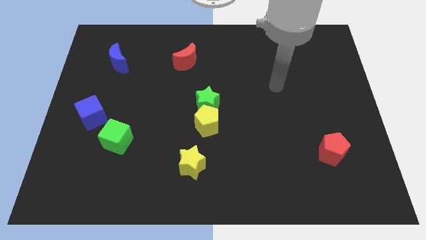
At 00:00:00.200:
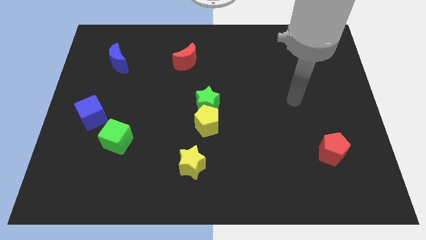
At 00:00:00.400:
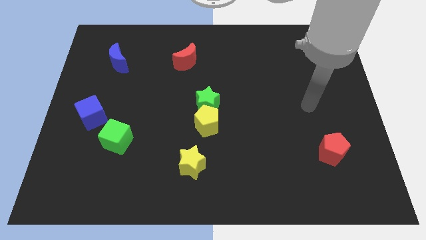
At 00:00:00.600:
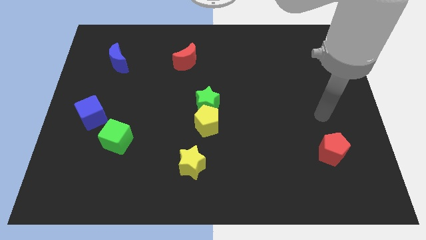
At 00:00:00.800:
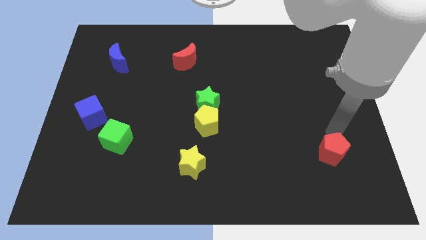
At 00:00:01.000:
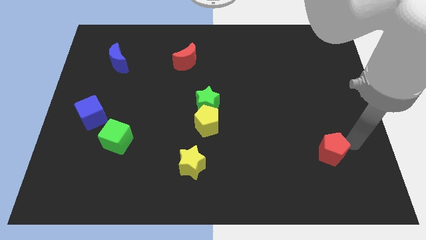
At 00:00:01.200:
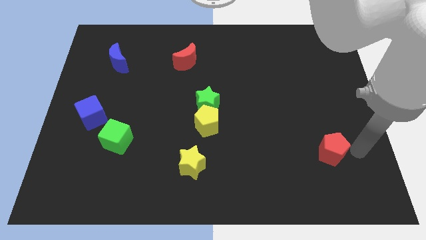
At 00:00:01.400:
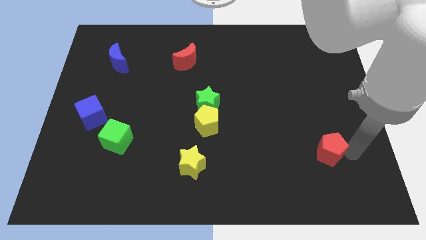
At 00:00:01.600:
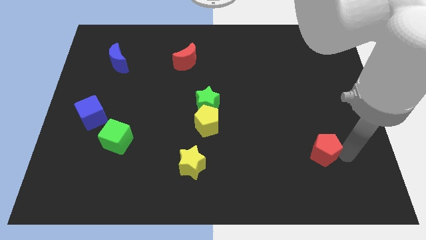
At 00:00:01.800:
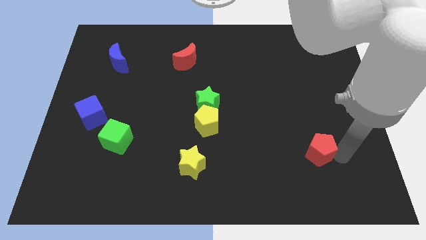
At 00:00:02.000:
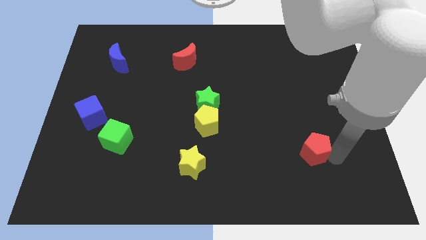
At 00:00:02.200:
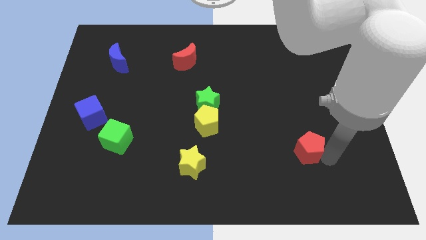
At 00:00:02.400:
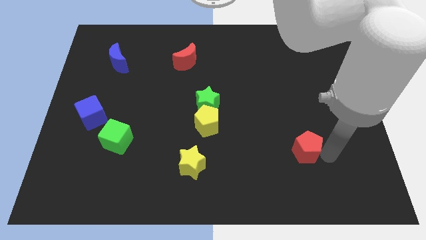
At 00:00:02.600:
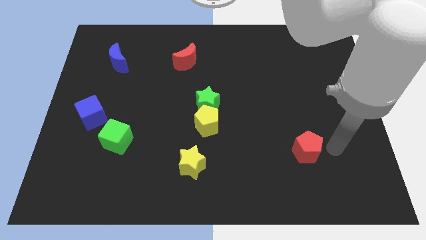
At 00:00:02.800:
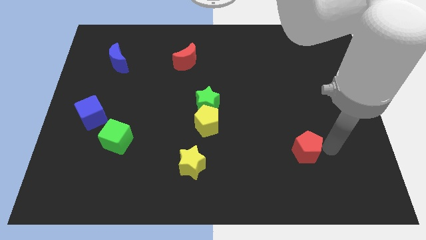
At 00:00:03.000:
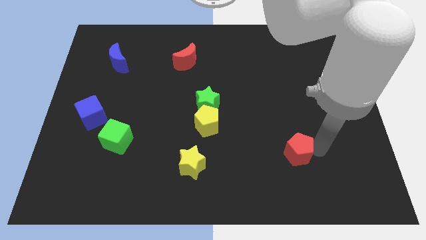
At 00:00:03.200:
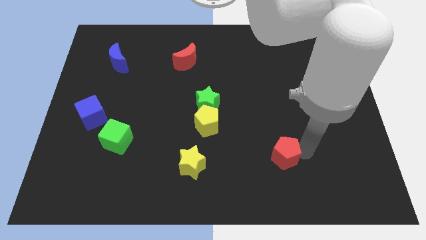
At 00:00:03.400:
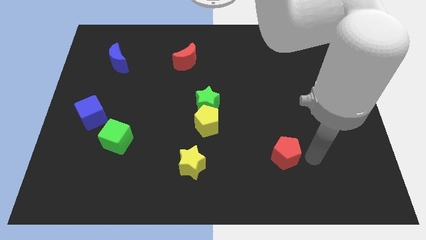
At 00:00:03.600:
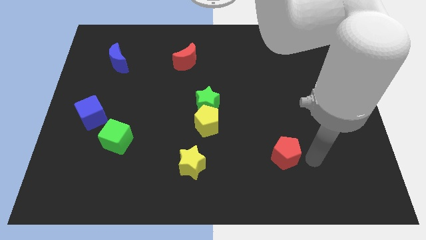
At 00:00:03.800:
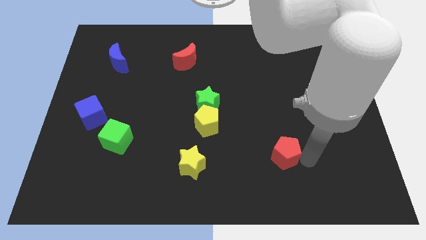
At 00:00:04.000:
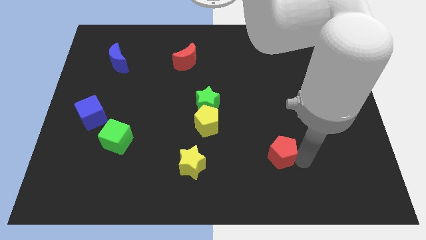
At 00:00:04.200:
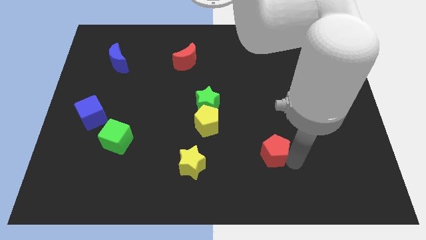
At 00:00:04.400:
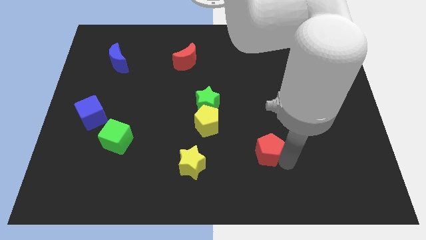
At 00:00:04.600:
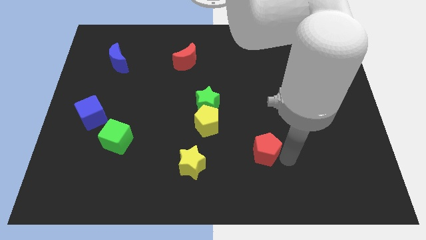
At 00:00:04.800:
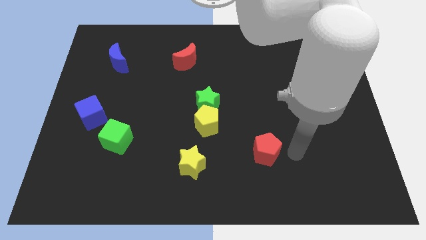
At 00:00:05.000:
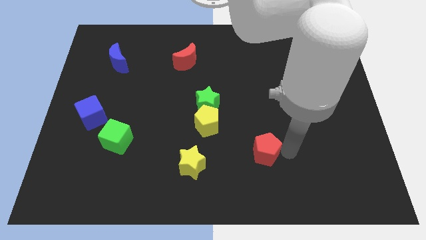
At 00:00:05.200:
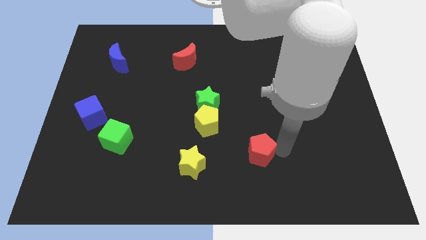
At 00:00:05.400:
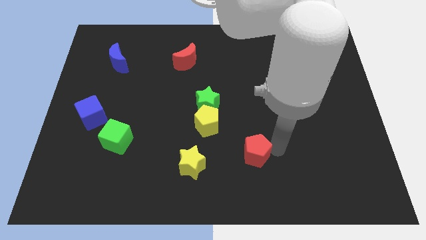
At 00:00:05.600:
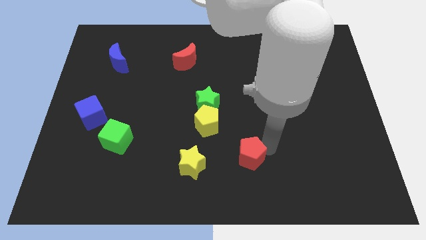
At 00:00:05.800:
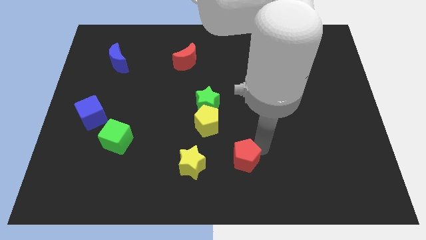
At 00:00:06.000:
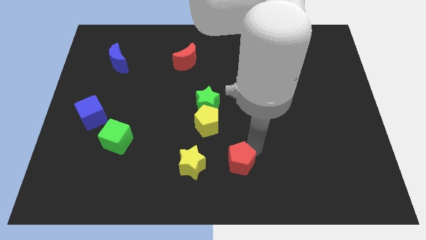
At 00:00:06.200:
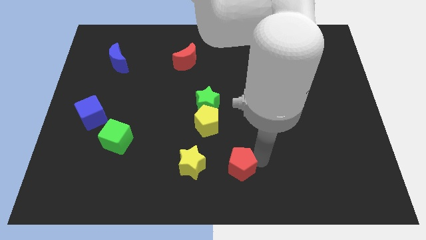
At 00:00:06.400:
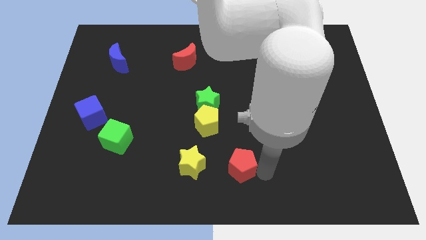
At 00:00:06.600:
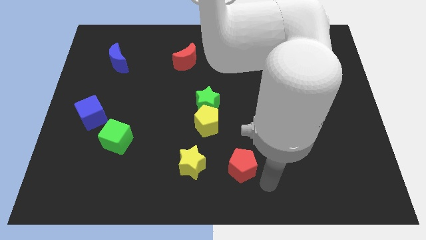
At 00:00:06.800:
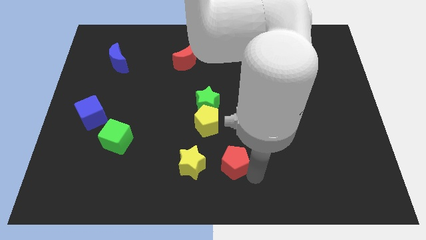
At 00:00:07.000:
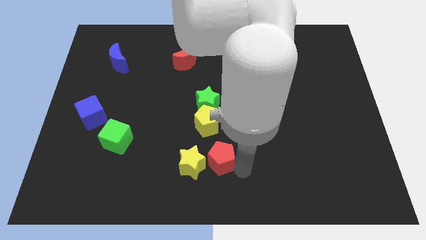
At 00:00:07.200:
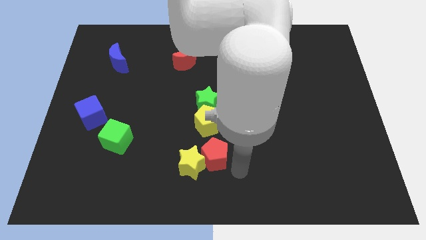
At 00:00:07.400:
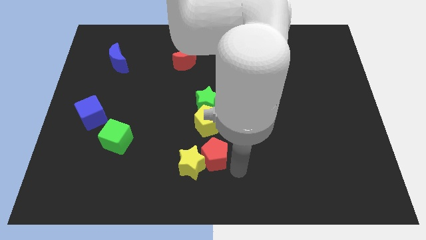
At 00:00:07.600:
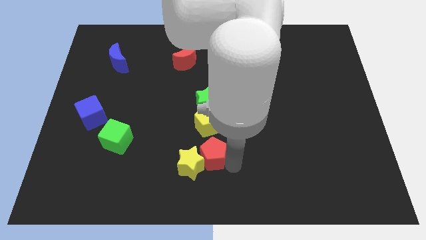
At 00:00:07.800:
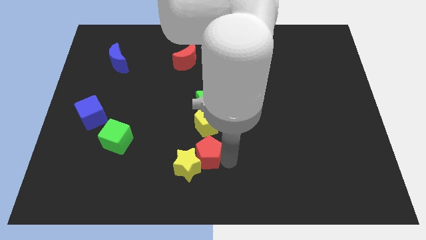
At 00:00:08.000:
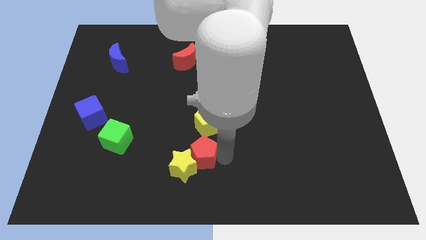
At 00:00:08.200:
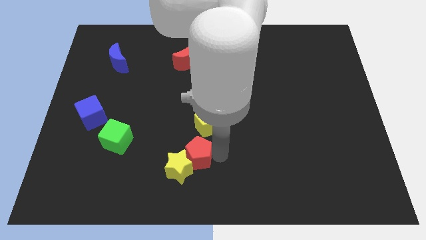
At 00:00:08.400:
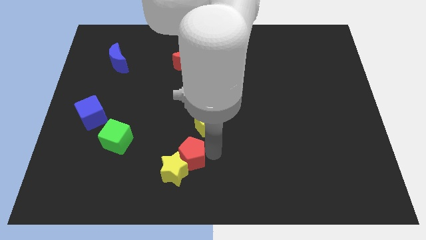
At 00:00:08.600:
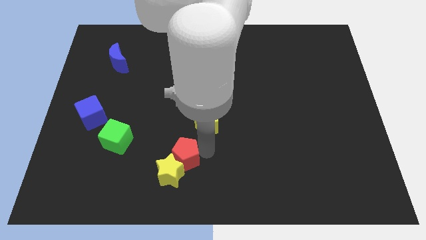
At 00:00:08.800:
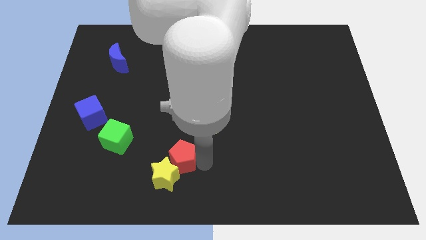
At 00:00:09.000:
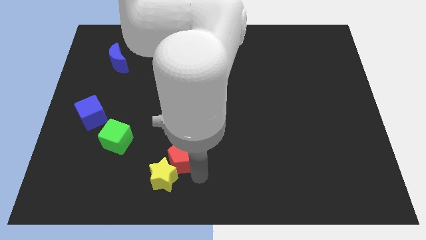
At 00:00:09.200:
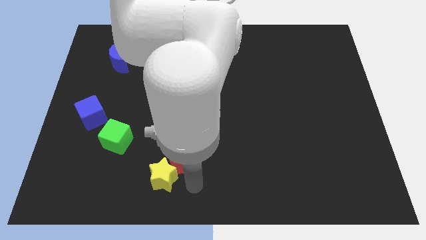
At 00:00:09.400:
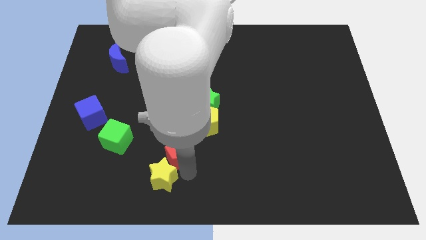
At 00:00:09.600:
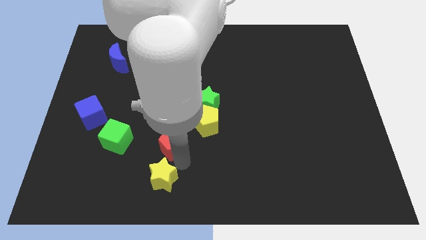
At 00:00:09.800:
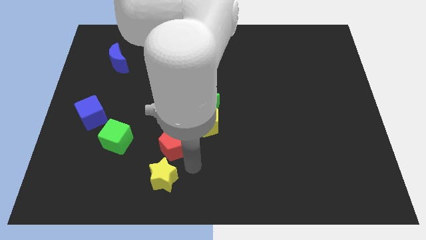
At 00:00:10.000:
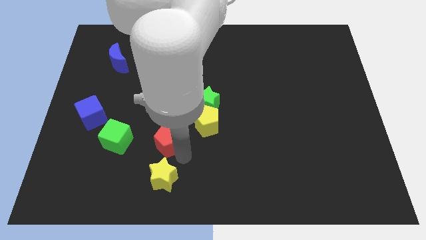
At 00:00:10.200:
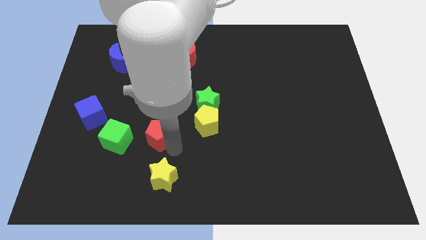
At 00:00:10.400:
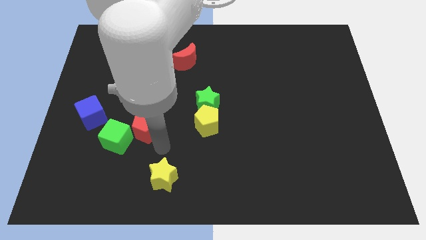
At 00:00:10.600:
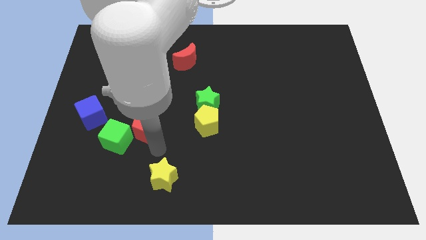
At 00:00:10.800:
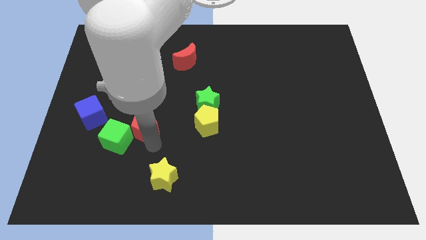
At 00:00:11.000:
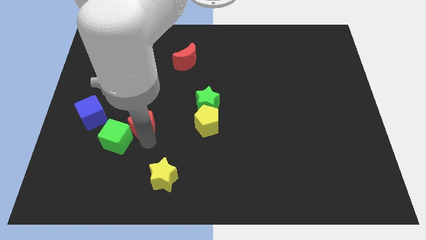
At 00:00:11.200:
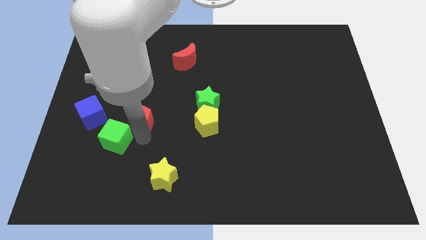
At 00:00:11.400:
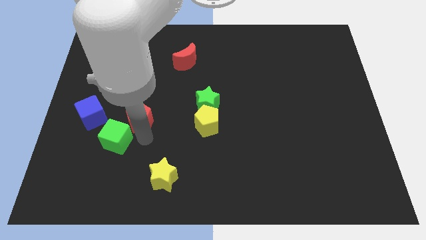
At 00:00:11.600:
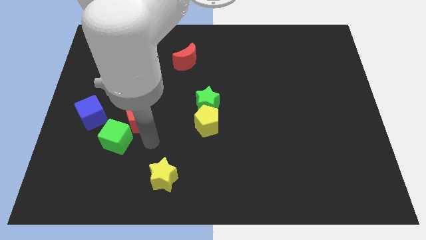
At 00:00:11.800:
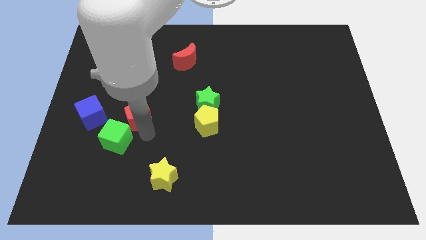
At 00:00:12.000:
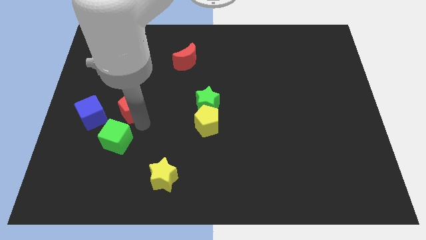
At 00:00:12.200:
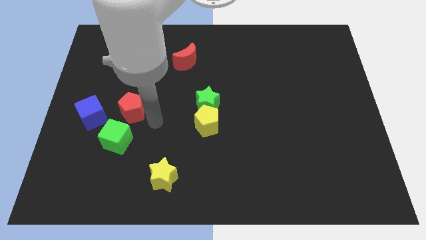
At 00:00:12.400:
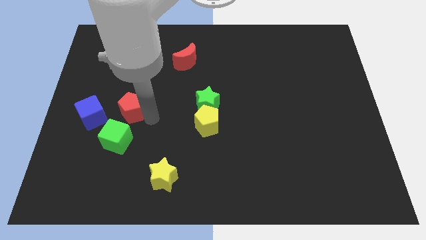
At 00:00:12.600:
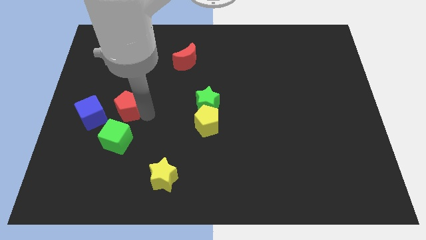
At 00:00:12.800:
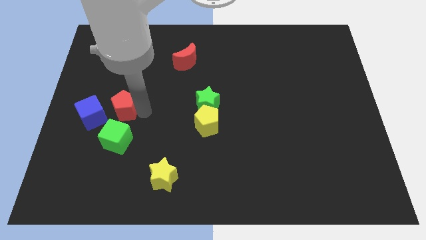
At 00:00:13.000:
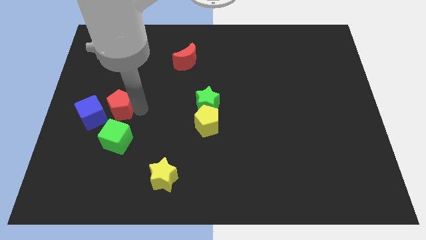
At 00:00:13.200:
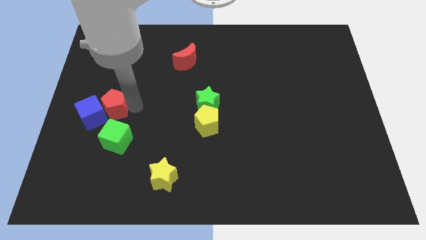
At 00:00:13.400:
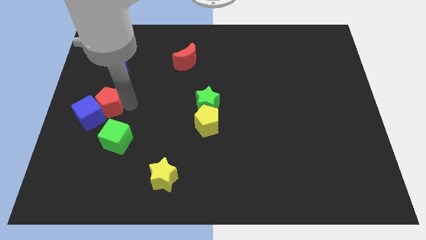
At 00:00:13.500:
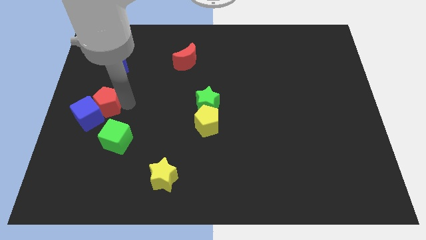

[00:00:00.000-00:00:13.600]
push the red pentagon to the center left
